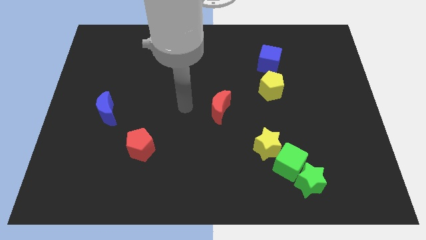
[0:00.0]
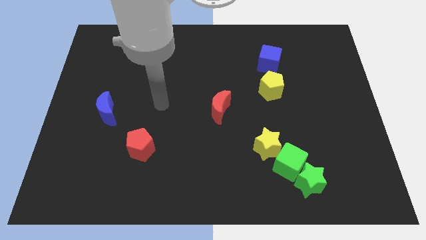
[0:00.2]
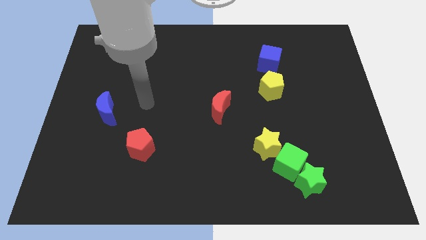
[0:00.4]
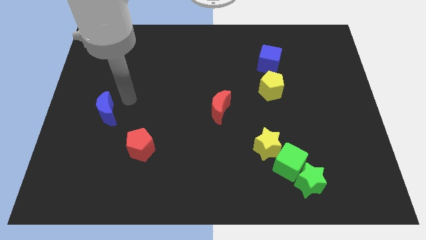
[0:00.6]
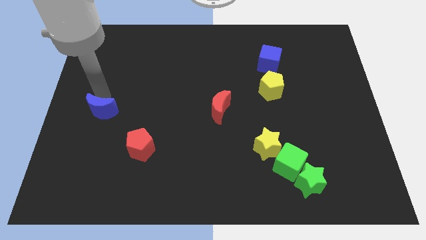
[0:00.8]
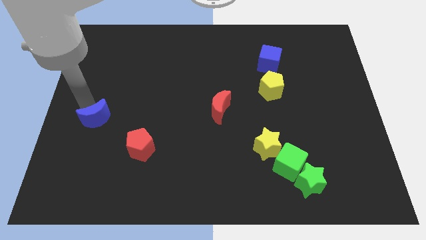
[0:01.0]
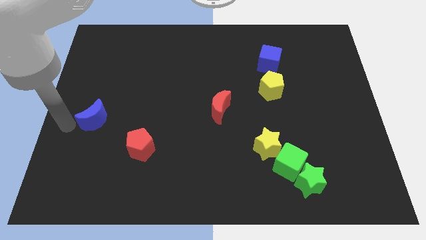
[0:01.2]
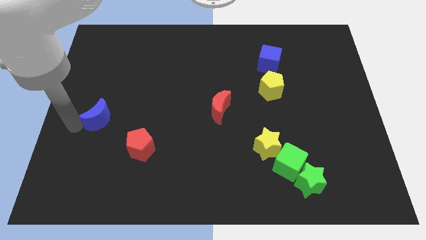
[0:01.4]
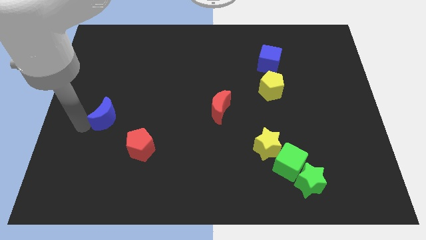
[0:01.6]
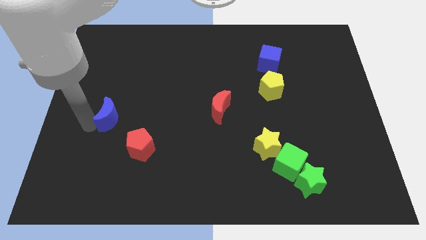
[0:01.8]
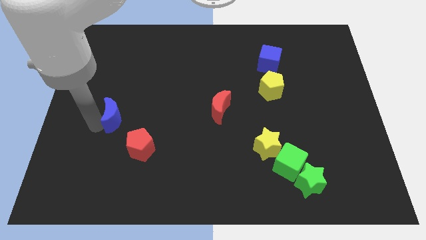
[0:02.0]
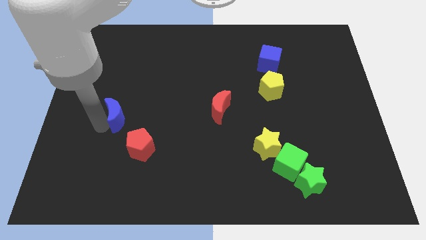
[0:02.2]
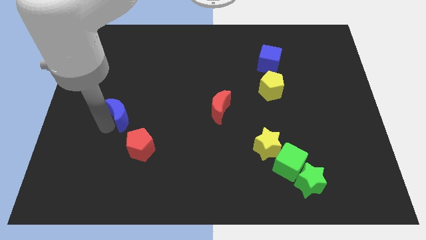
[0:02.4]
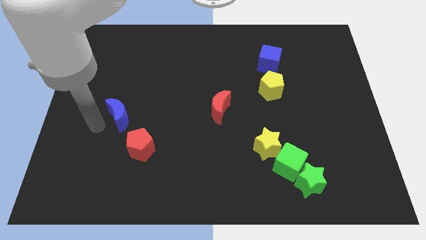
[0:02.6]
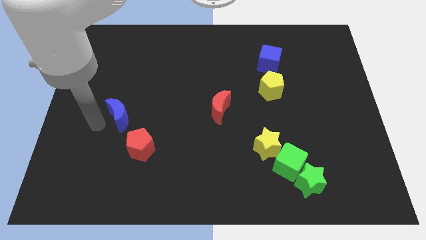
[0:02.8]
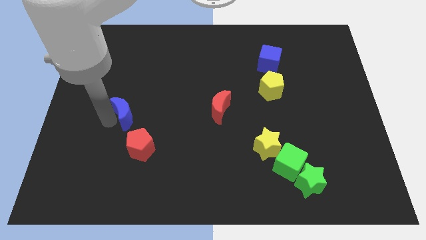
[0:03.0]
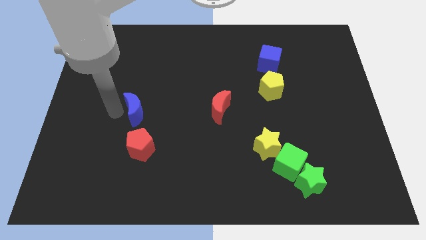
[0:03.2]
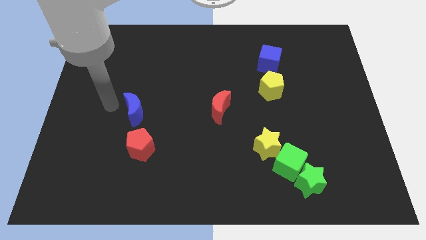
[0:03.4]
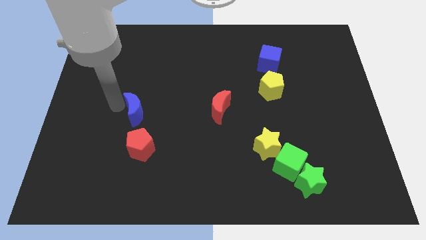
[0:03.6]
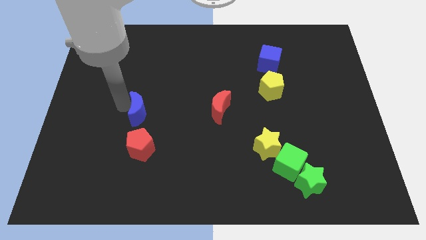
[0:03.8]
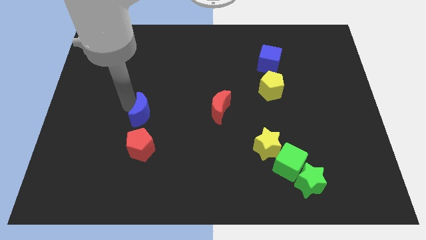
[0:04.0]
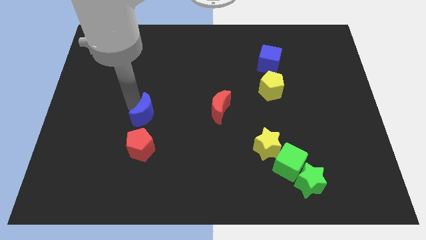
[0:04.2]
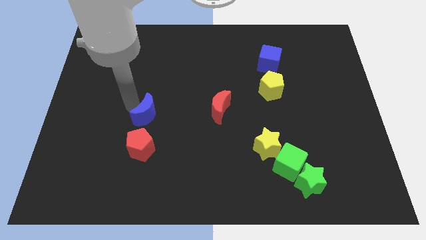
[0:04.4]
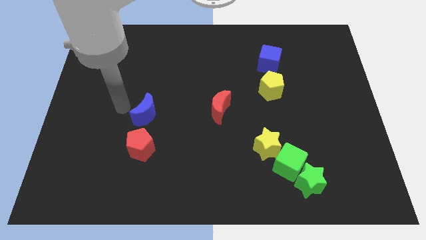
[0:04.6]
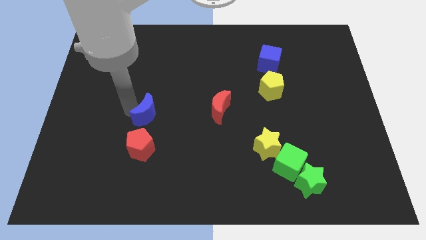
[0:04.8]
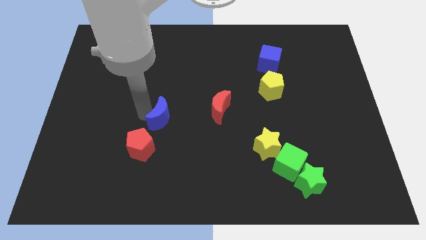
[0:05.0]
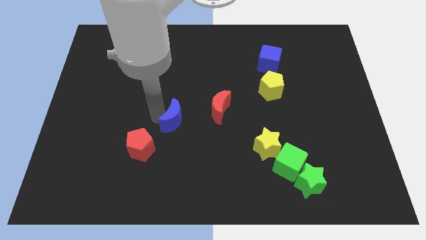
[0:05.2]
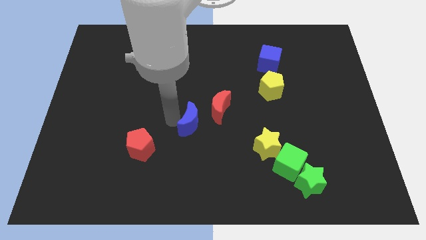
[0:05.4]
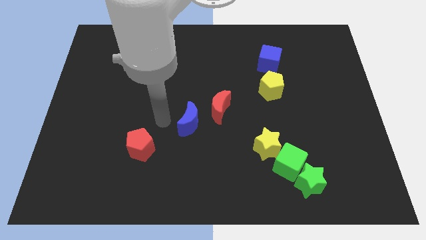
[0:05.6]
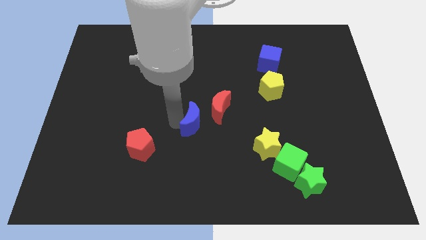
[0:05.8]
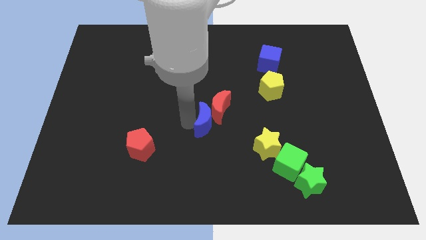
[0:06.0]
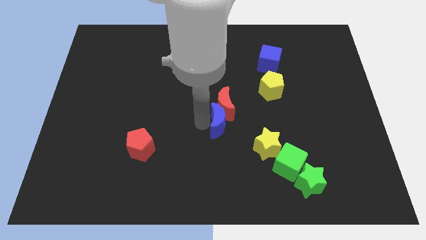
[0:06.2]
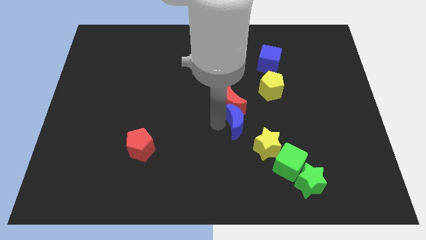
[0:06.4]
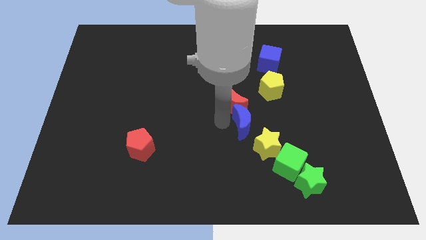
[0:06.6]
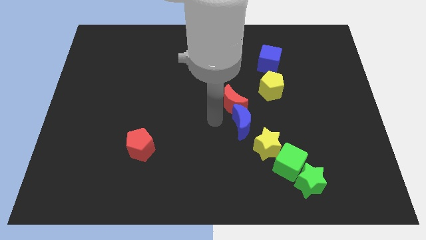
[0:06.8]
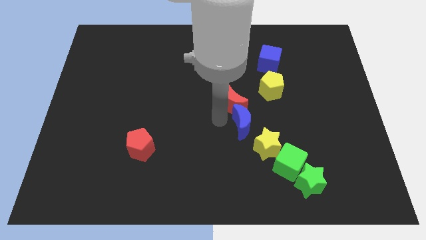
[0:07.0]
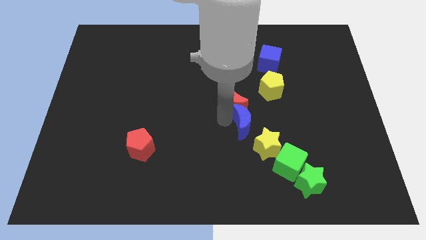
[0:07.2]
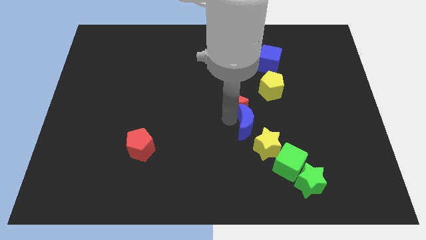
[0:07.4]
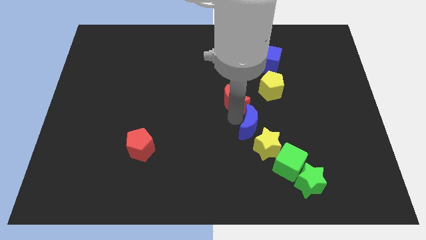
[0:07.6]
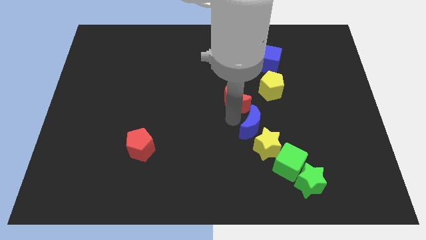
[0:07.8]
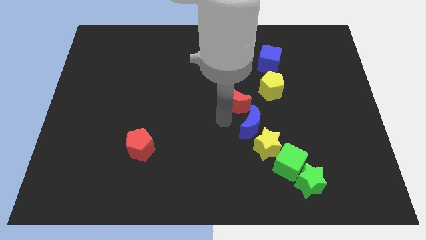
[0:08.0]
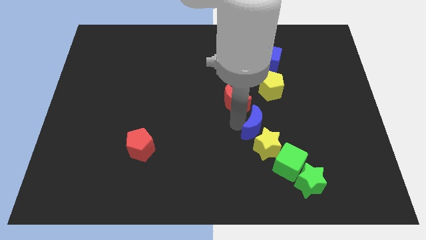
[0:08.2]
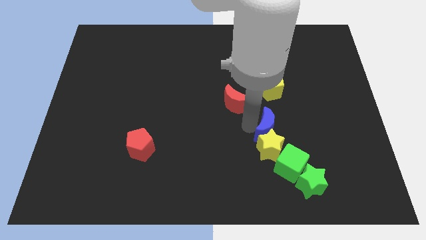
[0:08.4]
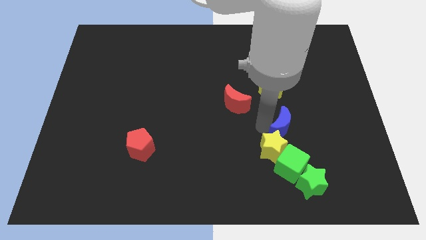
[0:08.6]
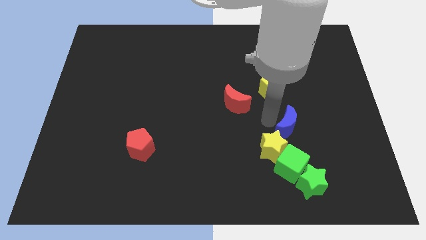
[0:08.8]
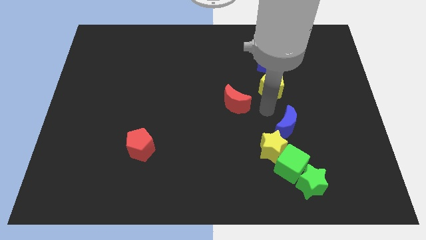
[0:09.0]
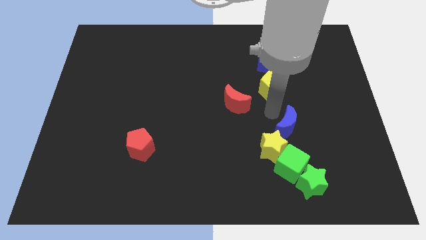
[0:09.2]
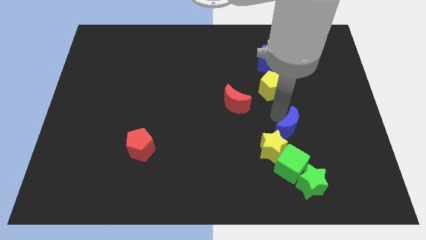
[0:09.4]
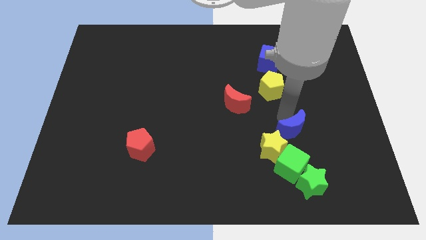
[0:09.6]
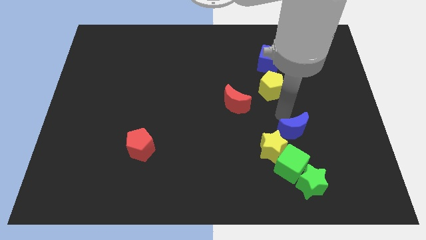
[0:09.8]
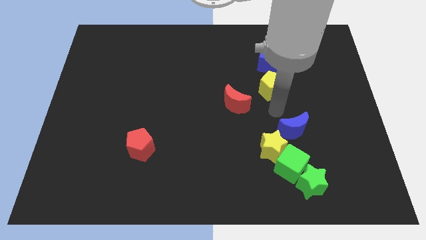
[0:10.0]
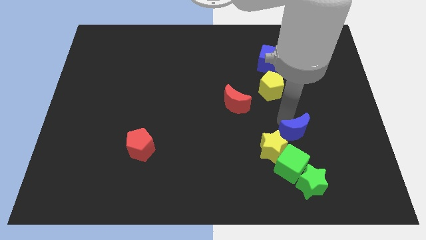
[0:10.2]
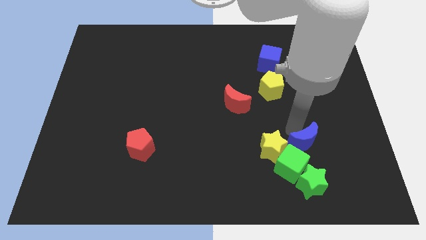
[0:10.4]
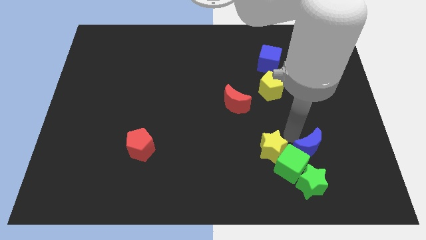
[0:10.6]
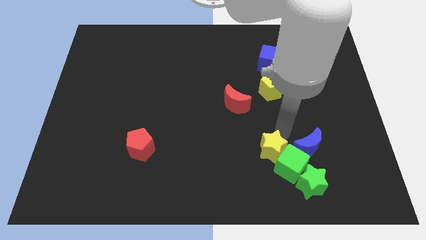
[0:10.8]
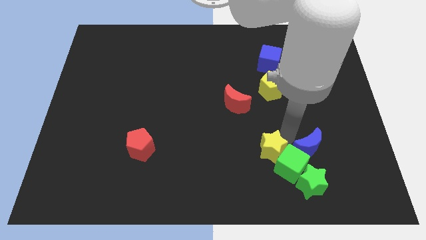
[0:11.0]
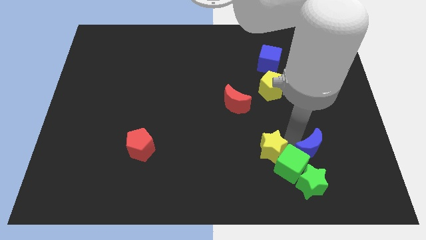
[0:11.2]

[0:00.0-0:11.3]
push the blue moon diagonally up and to the right of the green star

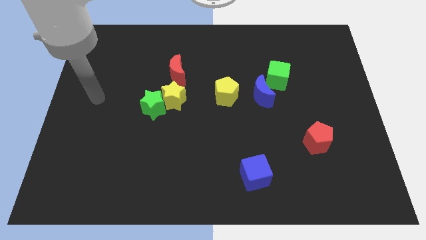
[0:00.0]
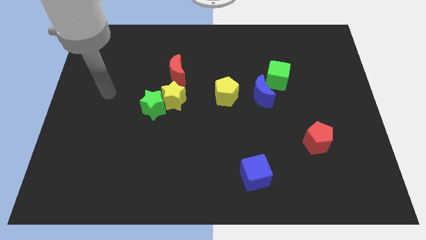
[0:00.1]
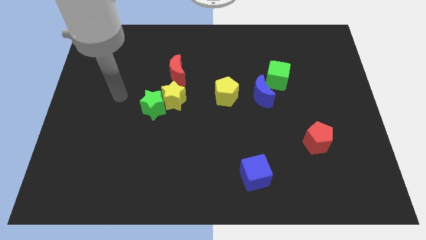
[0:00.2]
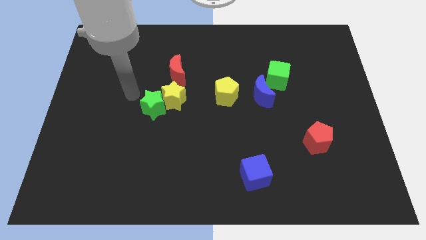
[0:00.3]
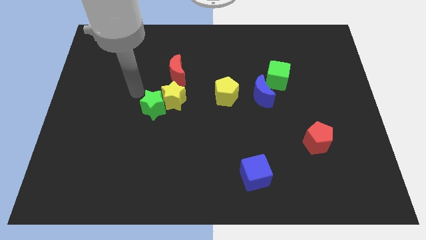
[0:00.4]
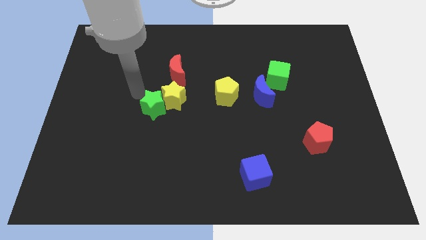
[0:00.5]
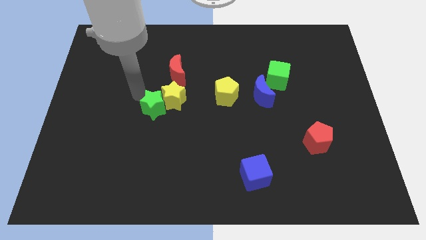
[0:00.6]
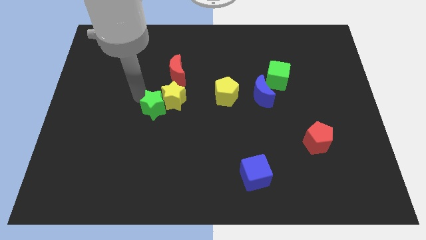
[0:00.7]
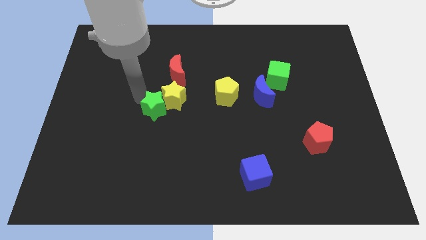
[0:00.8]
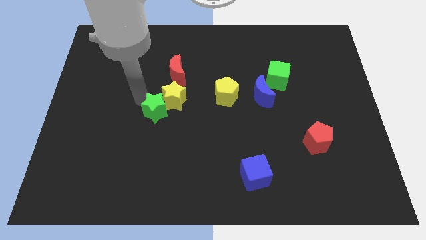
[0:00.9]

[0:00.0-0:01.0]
move the green star below the yellow star
